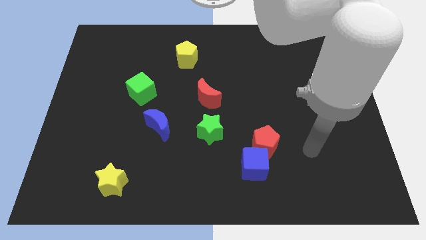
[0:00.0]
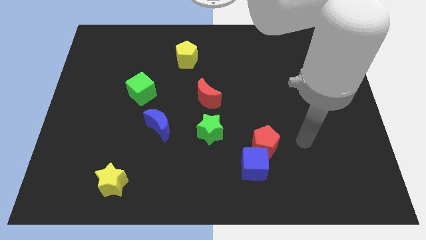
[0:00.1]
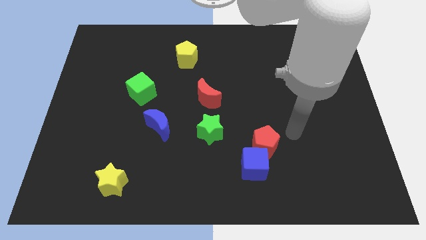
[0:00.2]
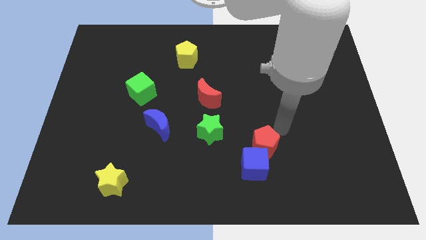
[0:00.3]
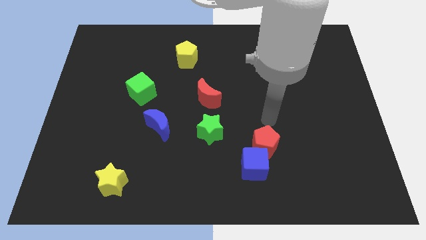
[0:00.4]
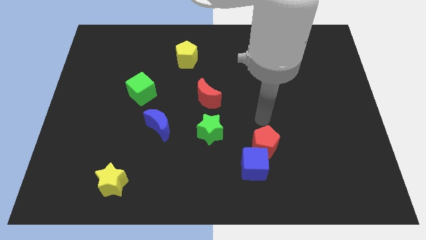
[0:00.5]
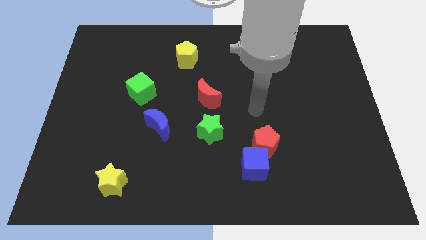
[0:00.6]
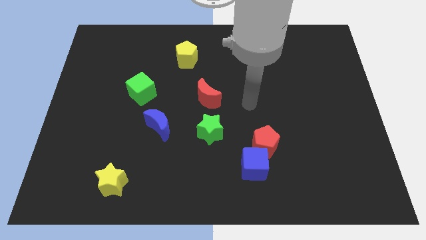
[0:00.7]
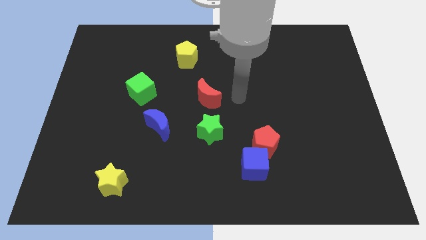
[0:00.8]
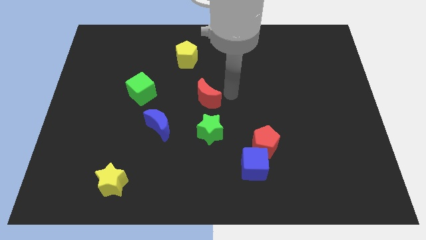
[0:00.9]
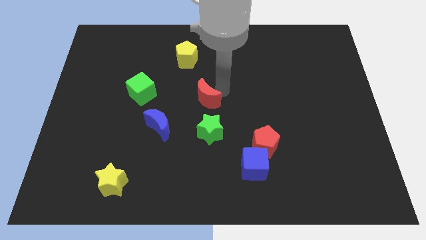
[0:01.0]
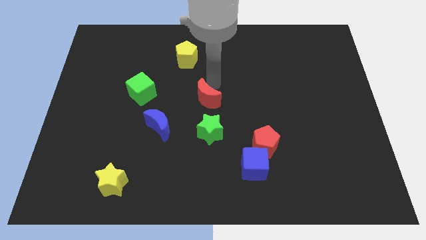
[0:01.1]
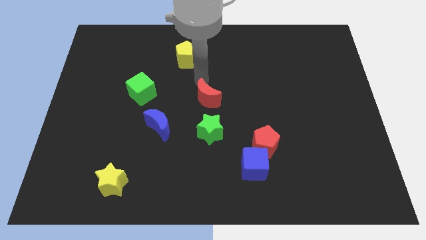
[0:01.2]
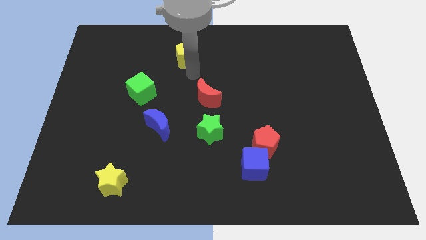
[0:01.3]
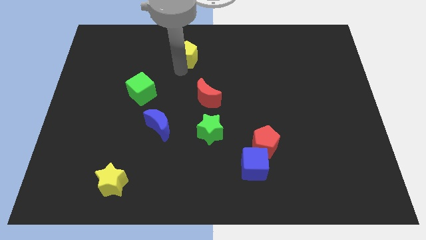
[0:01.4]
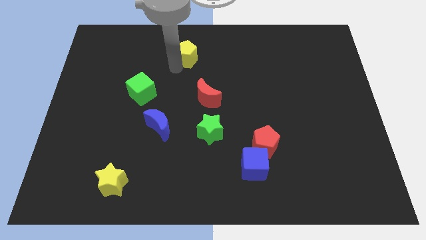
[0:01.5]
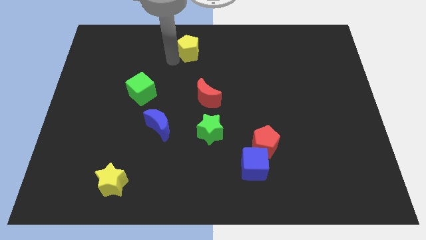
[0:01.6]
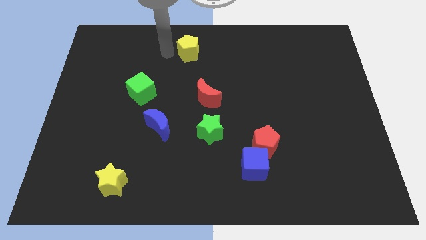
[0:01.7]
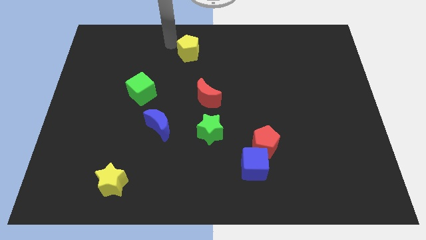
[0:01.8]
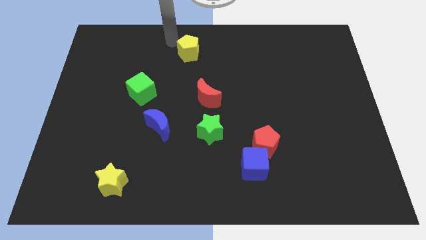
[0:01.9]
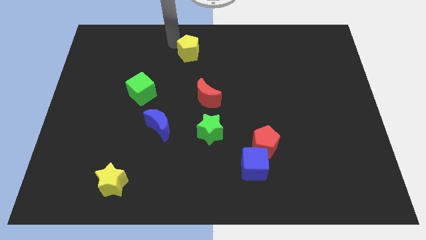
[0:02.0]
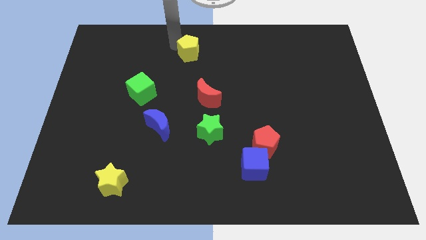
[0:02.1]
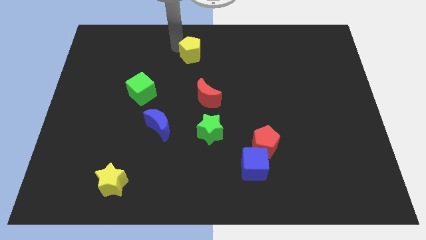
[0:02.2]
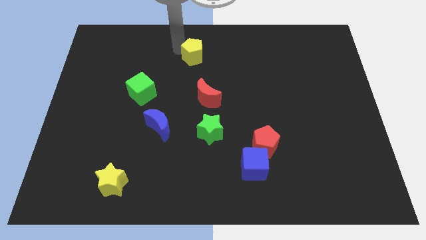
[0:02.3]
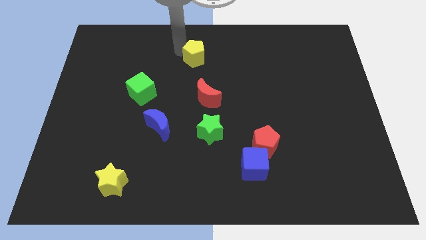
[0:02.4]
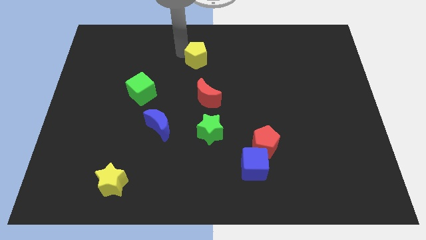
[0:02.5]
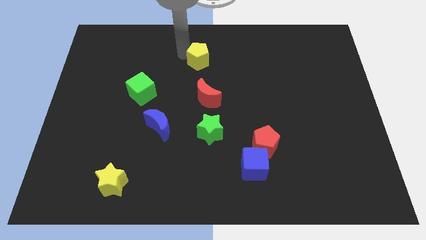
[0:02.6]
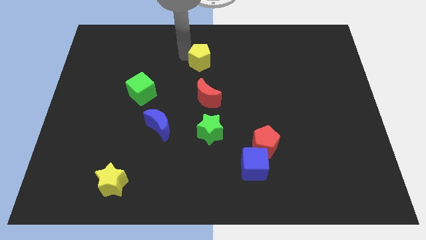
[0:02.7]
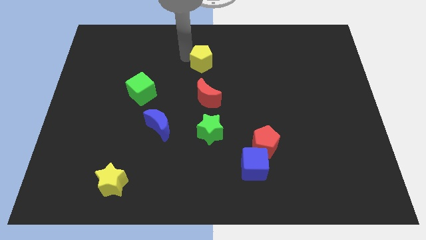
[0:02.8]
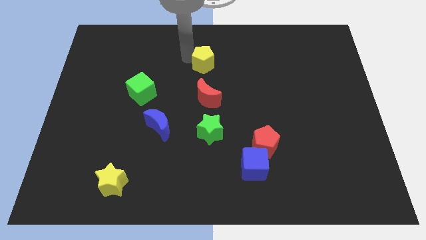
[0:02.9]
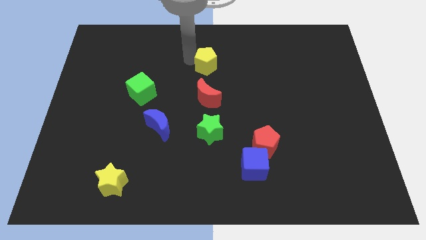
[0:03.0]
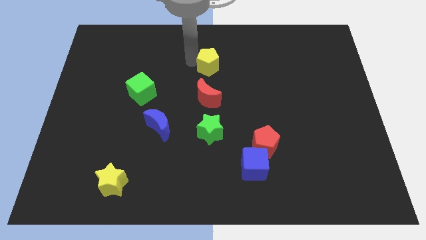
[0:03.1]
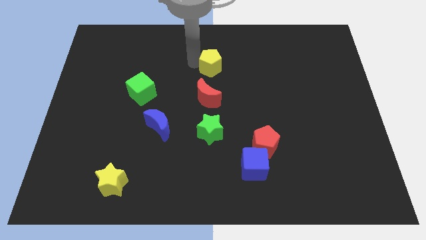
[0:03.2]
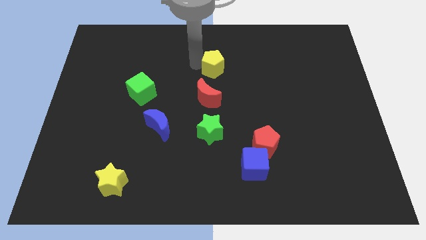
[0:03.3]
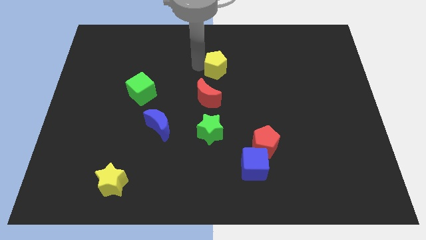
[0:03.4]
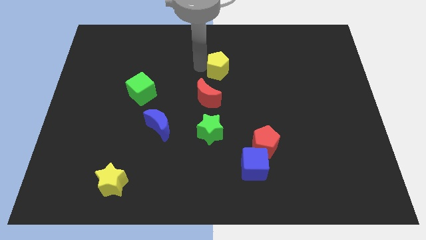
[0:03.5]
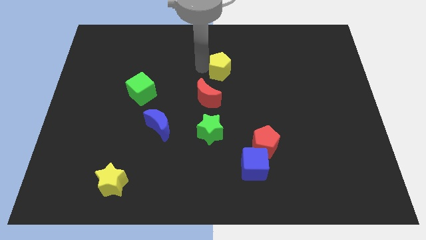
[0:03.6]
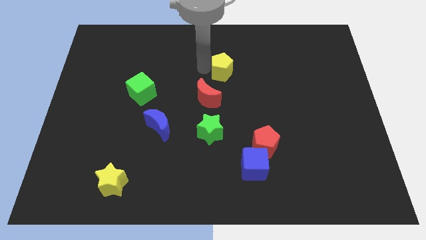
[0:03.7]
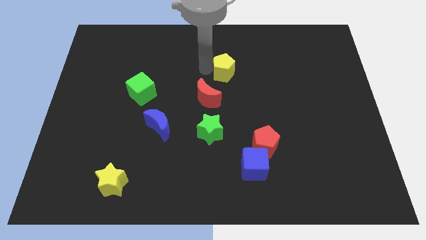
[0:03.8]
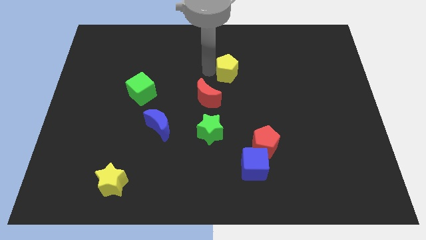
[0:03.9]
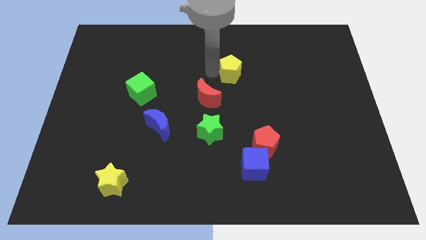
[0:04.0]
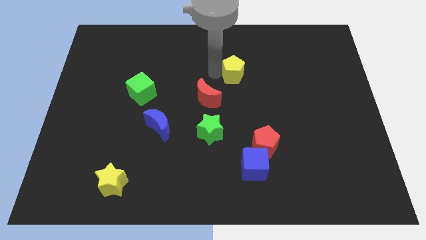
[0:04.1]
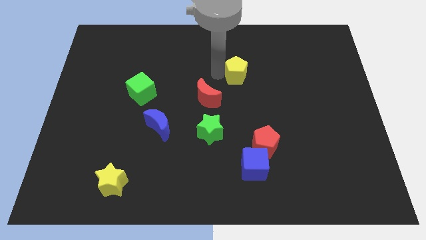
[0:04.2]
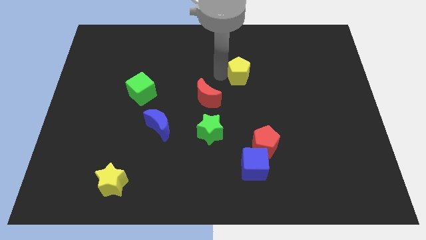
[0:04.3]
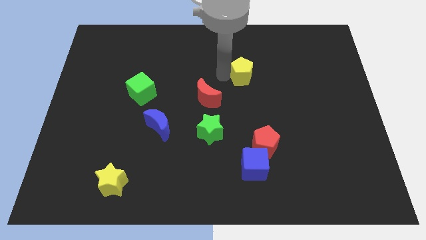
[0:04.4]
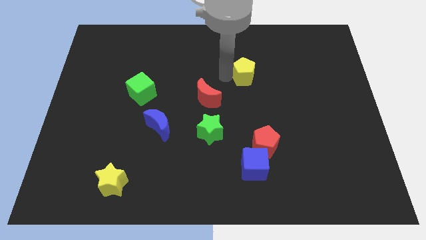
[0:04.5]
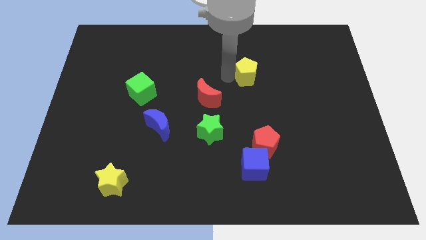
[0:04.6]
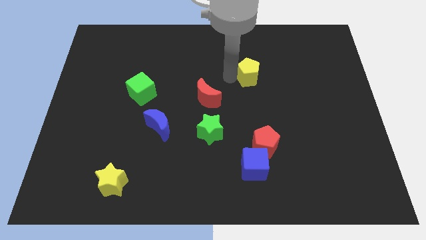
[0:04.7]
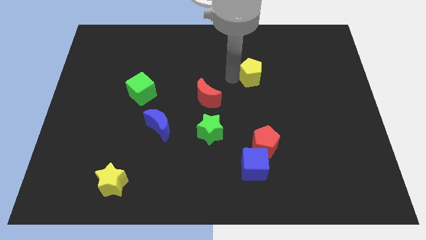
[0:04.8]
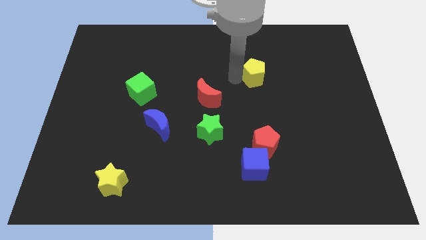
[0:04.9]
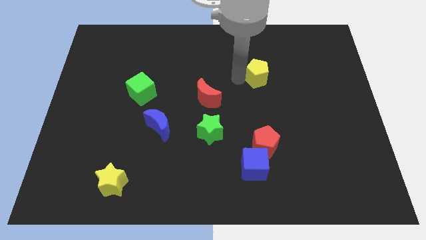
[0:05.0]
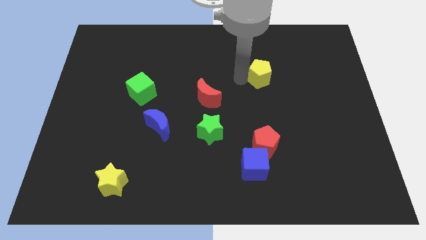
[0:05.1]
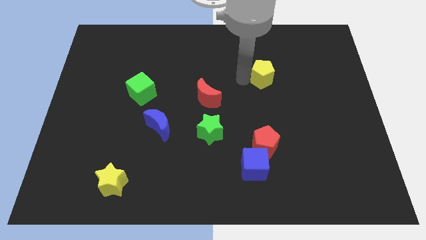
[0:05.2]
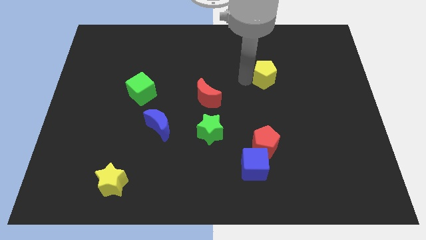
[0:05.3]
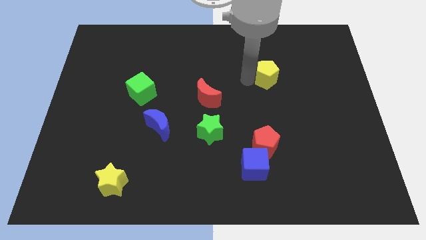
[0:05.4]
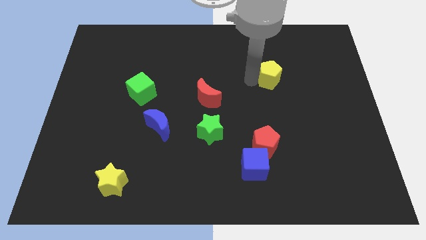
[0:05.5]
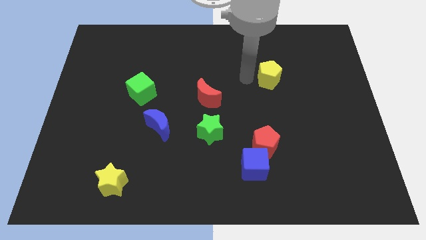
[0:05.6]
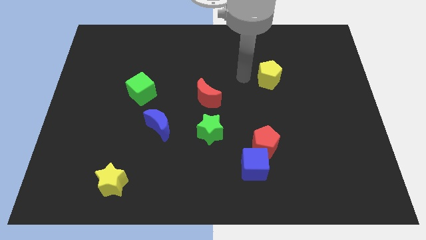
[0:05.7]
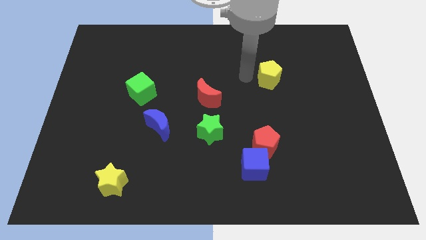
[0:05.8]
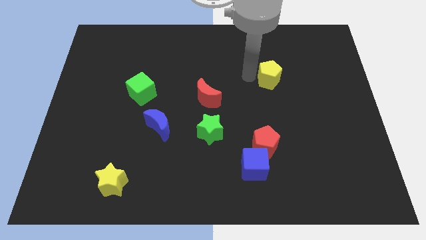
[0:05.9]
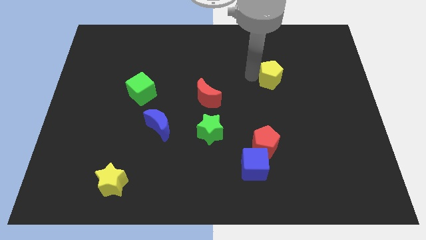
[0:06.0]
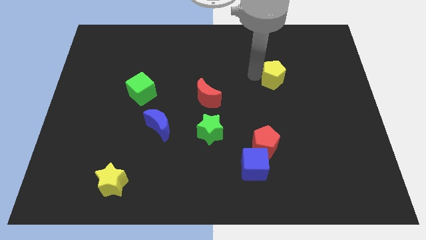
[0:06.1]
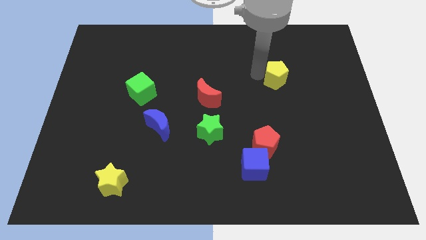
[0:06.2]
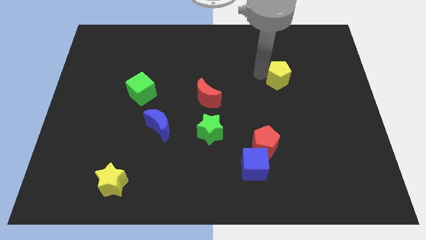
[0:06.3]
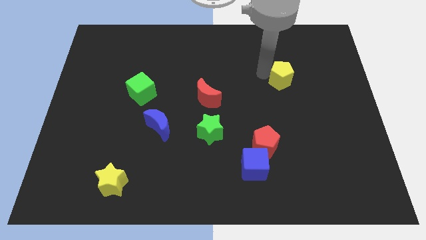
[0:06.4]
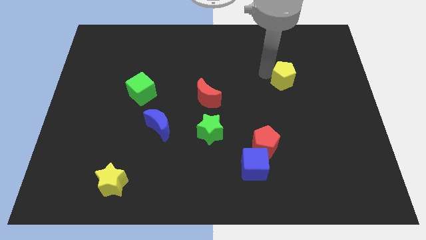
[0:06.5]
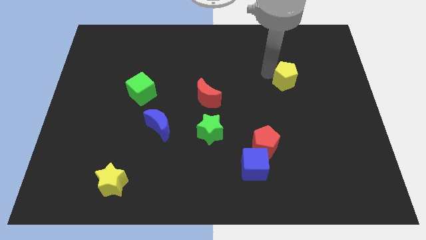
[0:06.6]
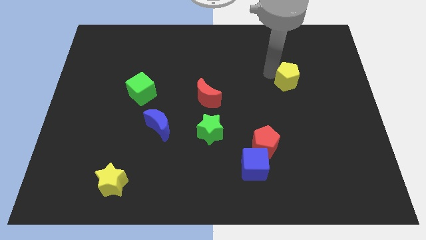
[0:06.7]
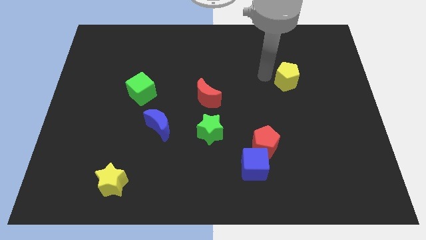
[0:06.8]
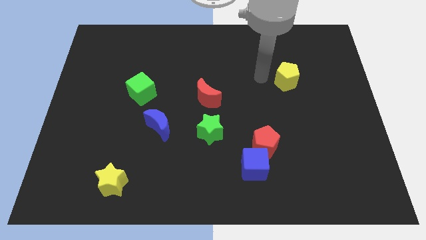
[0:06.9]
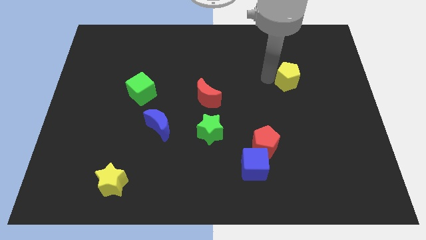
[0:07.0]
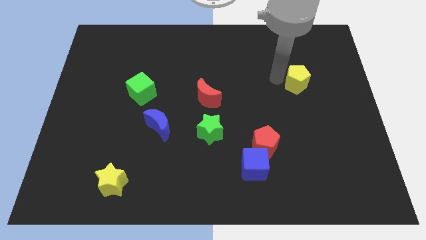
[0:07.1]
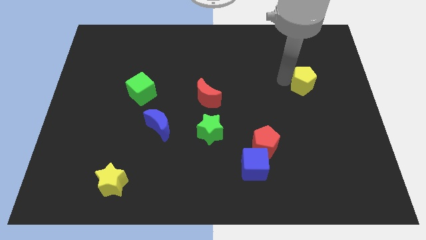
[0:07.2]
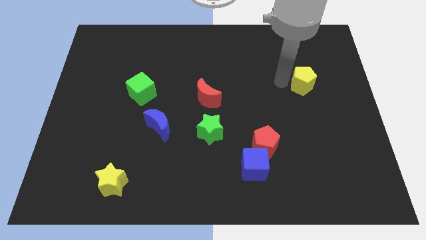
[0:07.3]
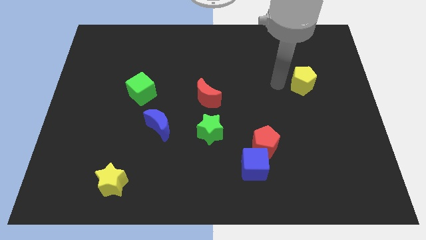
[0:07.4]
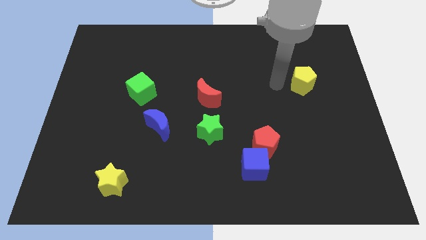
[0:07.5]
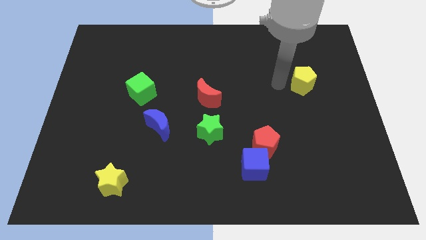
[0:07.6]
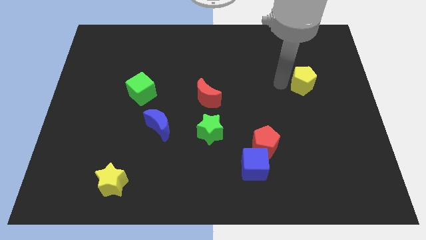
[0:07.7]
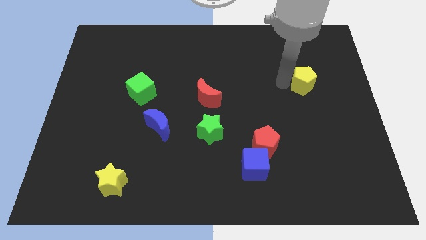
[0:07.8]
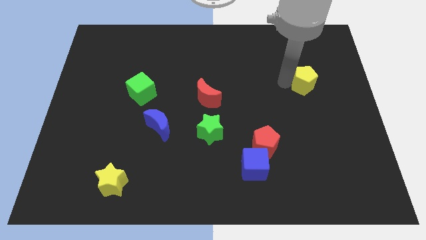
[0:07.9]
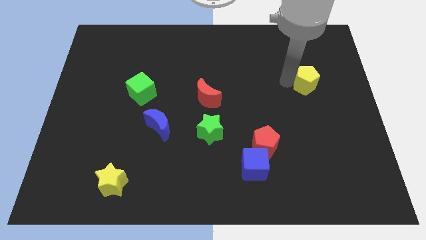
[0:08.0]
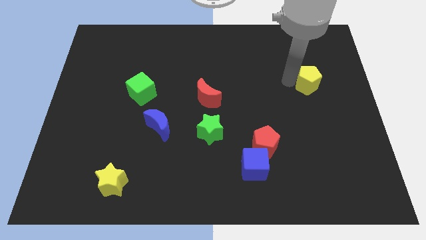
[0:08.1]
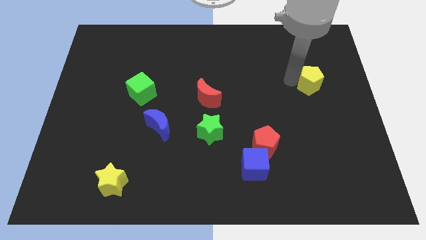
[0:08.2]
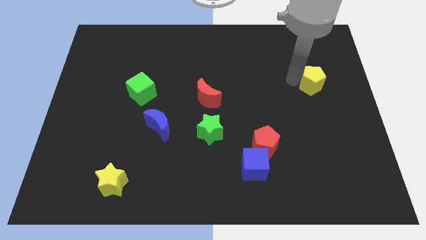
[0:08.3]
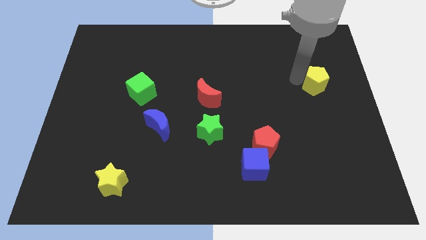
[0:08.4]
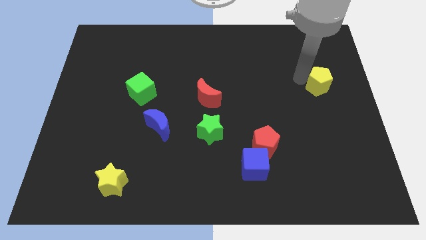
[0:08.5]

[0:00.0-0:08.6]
put the yellow pentagon to the right side
